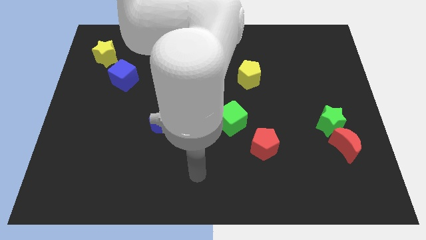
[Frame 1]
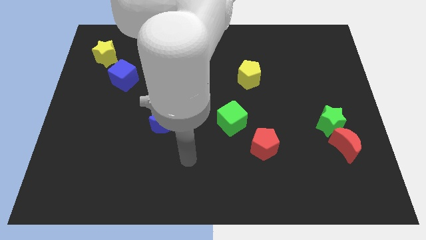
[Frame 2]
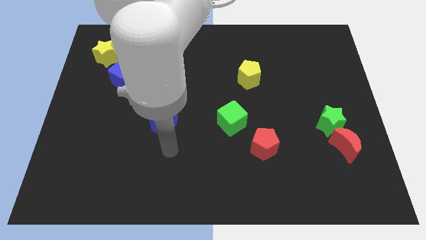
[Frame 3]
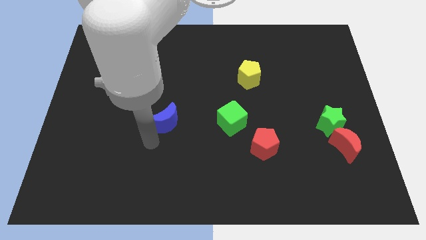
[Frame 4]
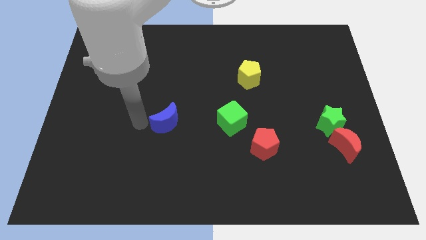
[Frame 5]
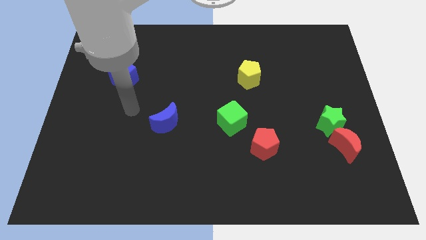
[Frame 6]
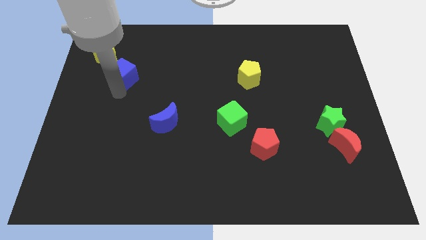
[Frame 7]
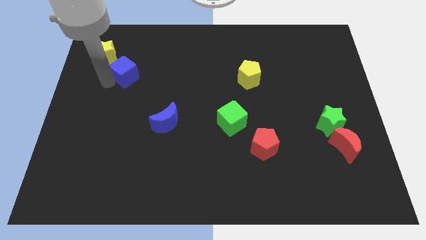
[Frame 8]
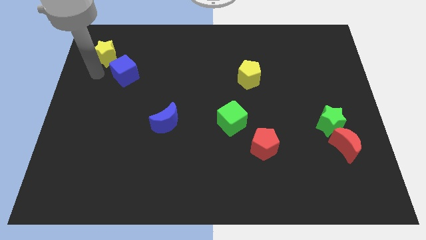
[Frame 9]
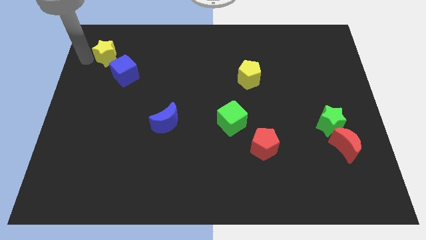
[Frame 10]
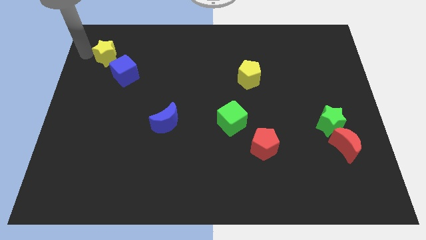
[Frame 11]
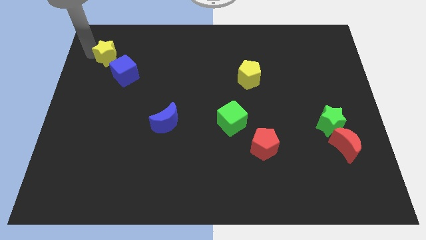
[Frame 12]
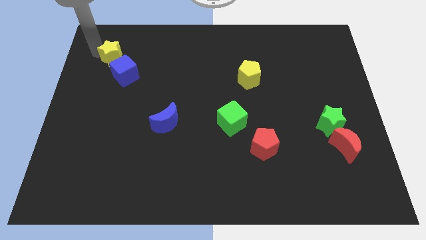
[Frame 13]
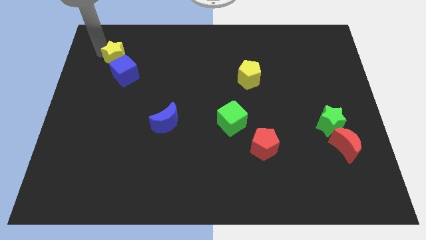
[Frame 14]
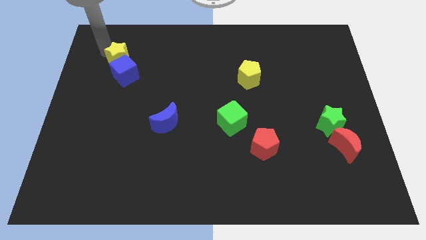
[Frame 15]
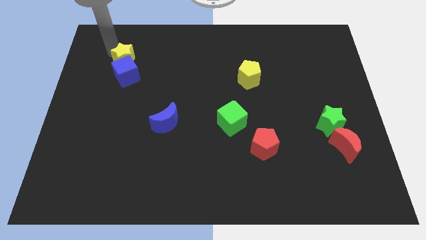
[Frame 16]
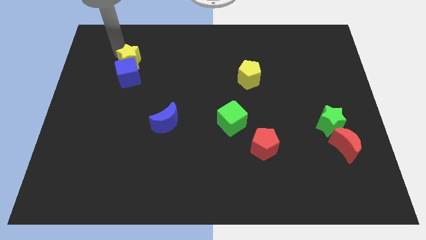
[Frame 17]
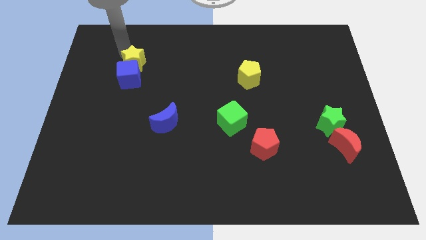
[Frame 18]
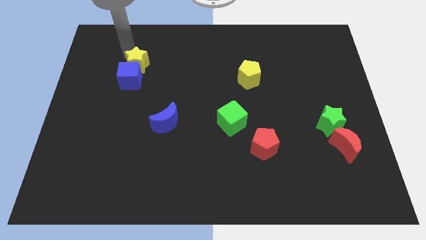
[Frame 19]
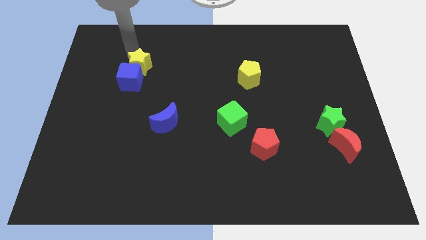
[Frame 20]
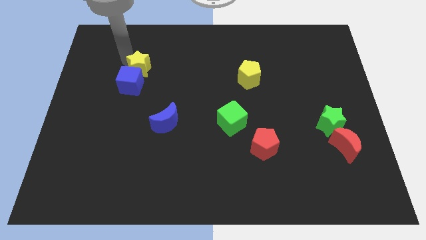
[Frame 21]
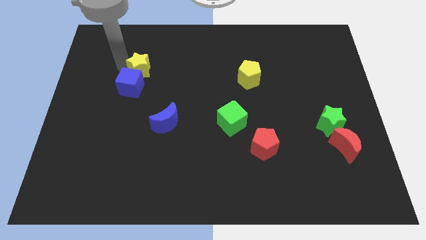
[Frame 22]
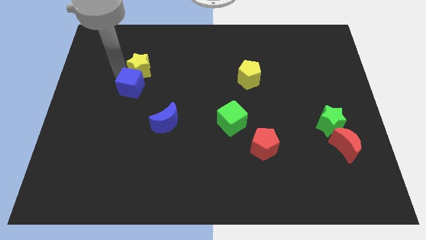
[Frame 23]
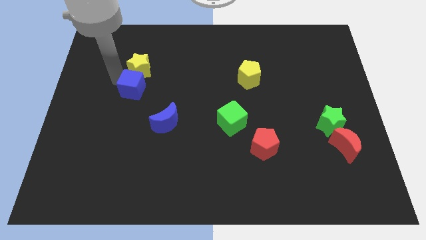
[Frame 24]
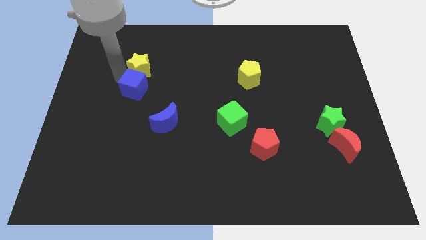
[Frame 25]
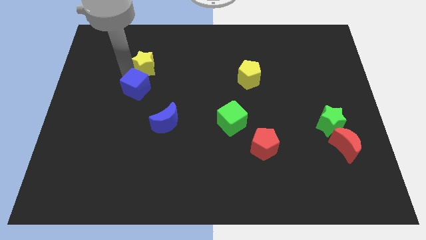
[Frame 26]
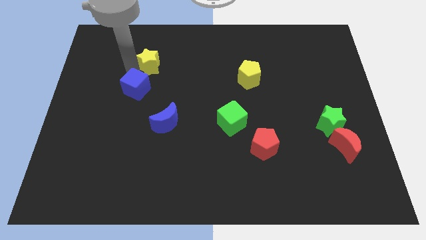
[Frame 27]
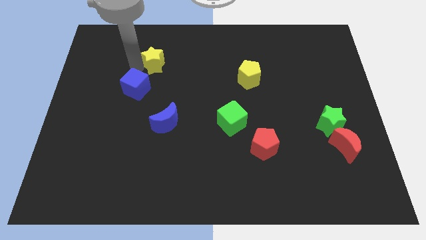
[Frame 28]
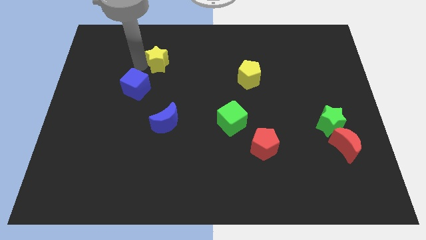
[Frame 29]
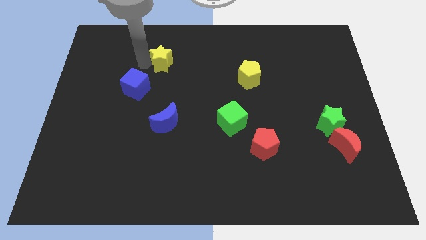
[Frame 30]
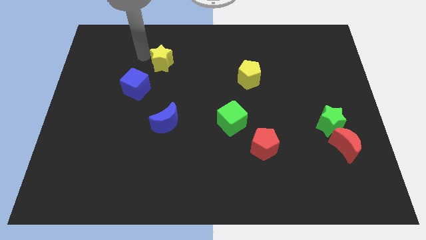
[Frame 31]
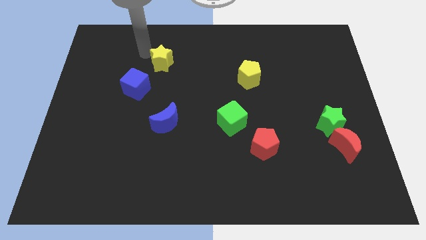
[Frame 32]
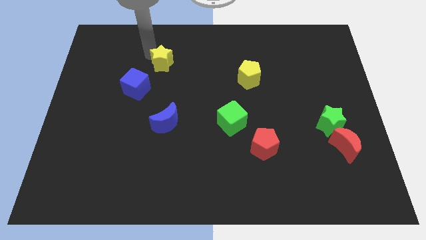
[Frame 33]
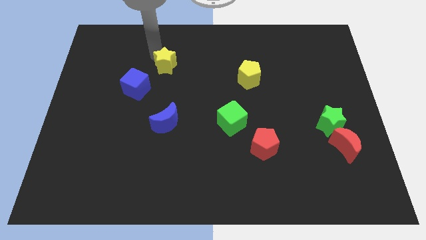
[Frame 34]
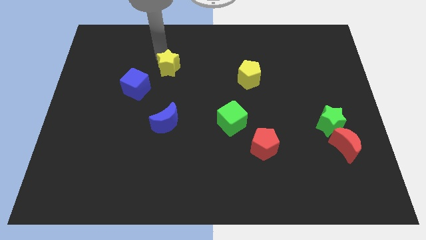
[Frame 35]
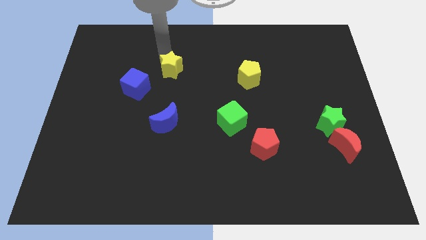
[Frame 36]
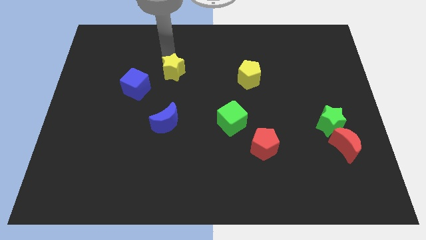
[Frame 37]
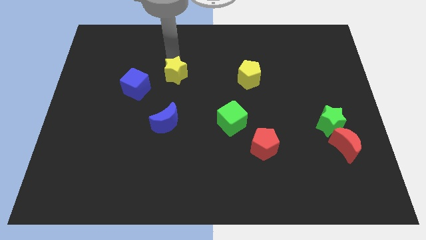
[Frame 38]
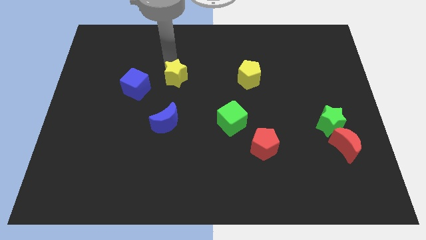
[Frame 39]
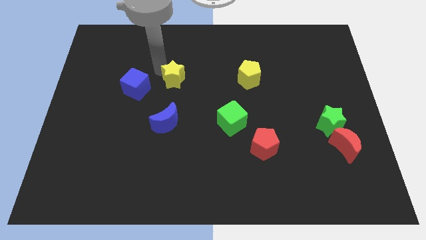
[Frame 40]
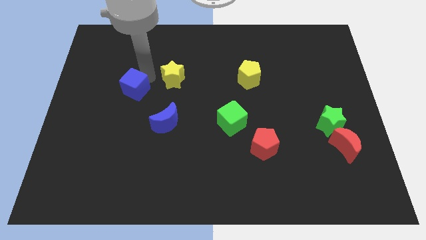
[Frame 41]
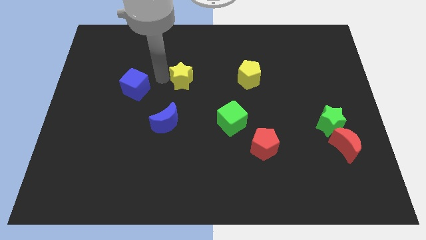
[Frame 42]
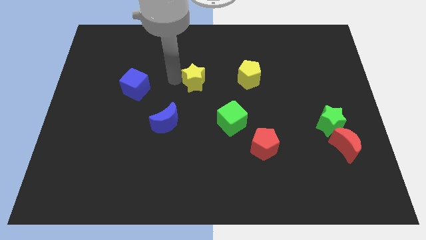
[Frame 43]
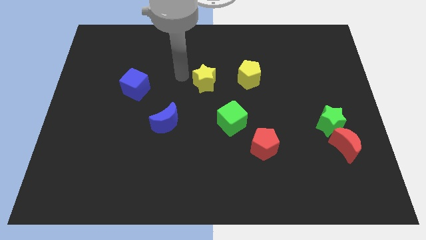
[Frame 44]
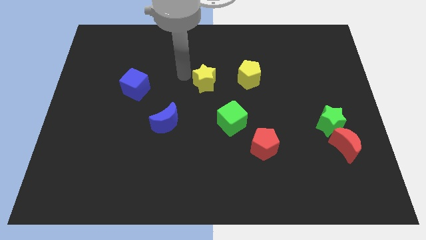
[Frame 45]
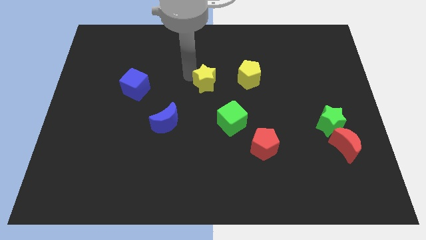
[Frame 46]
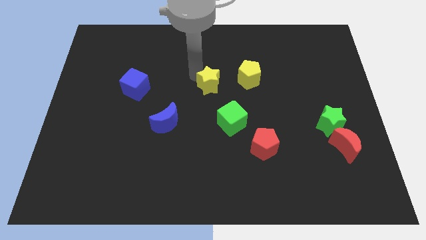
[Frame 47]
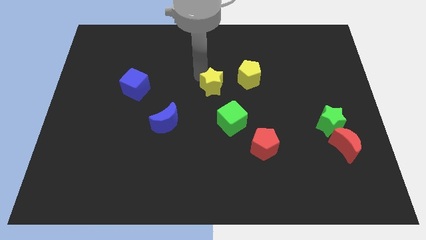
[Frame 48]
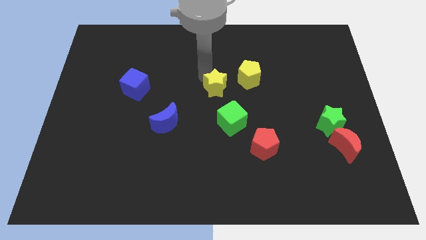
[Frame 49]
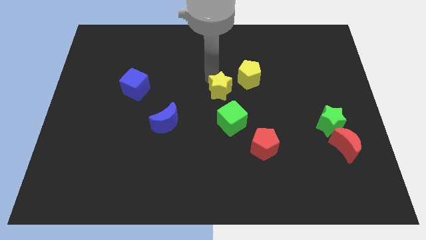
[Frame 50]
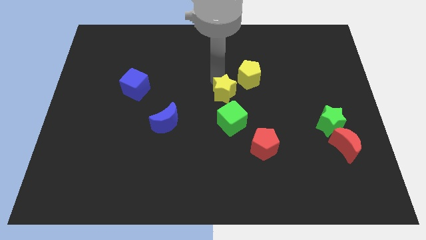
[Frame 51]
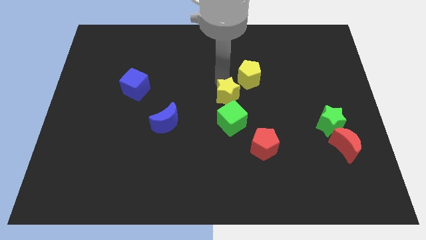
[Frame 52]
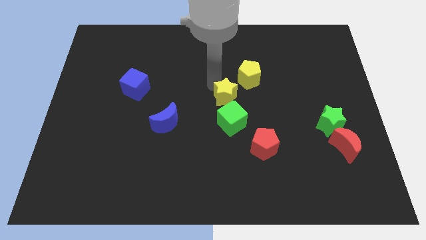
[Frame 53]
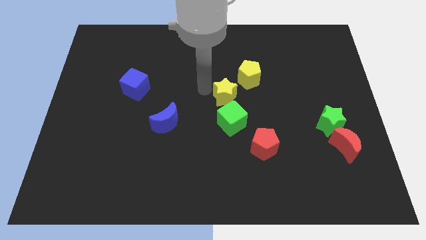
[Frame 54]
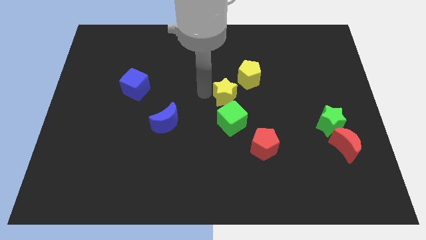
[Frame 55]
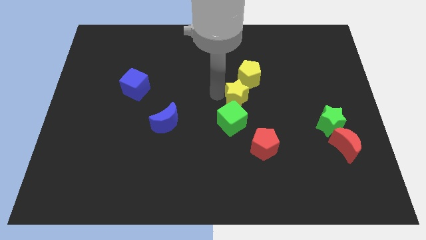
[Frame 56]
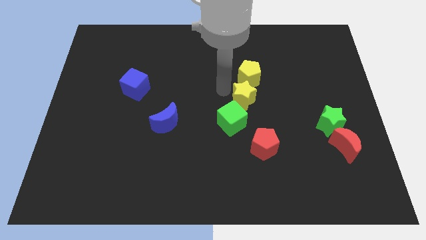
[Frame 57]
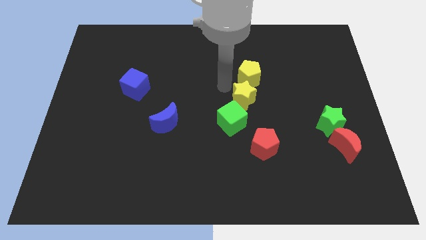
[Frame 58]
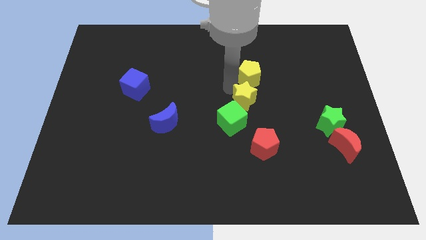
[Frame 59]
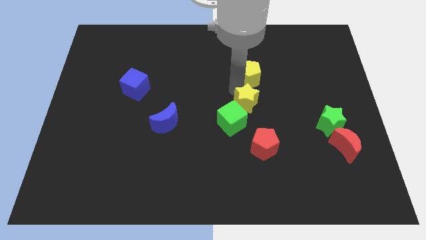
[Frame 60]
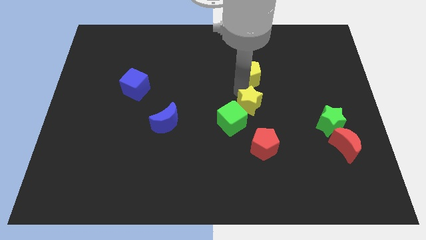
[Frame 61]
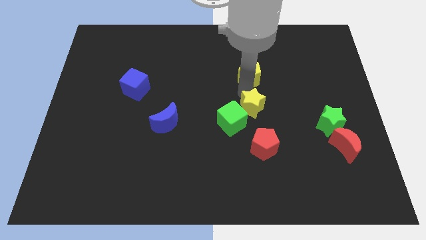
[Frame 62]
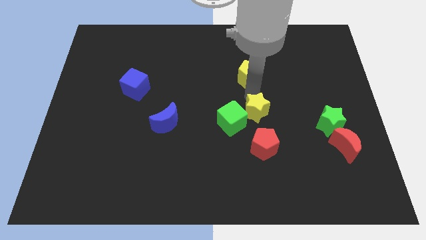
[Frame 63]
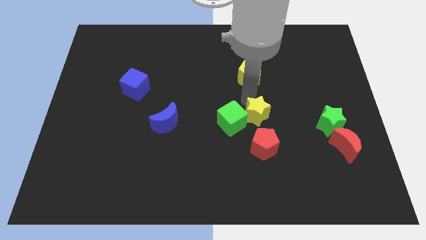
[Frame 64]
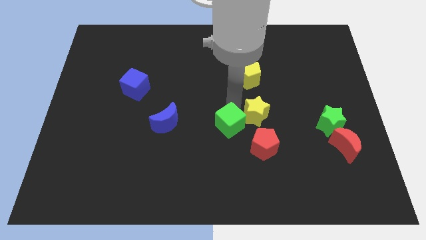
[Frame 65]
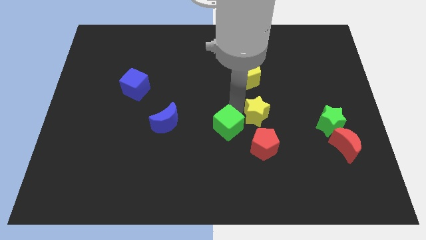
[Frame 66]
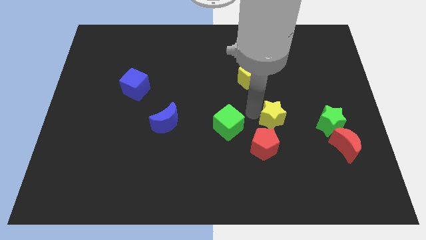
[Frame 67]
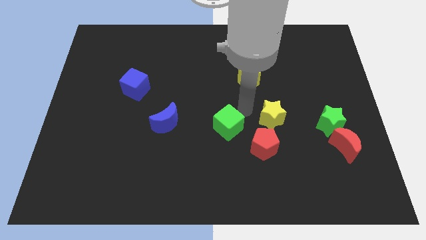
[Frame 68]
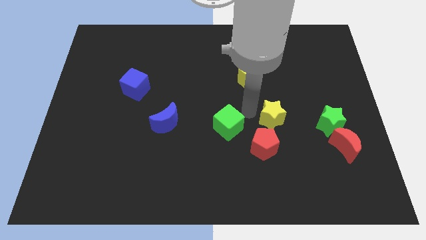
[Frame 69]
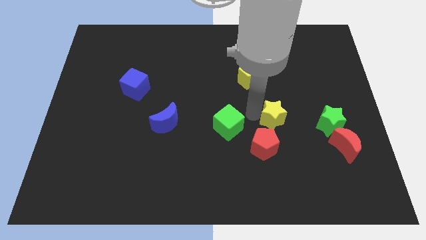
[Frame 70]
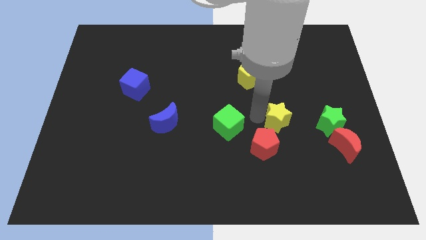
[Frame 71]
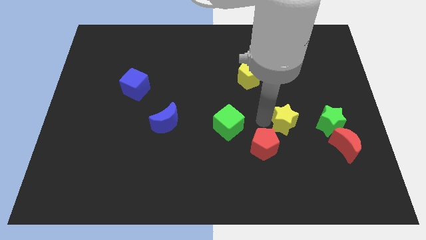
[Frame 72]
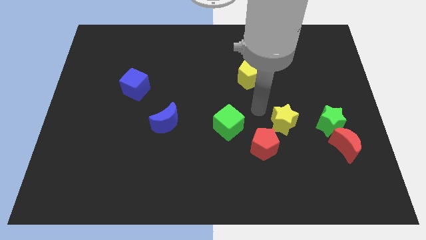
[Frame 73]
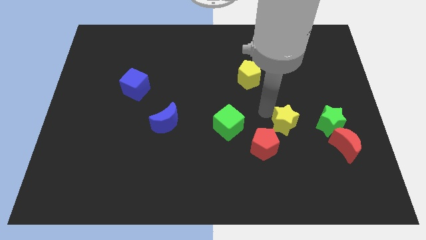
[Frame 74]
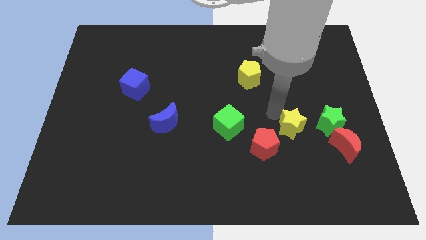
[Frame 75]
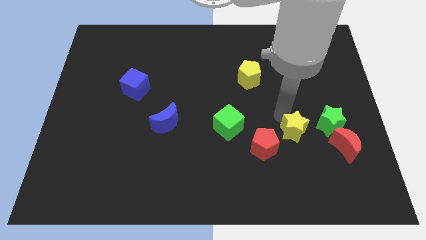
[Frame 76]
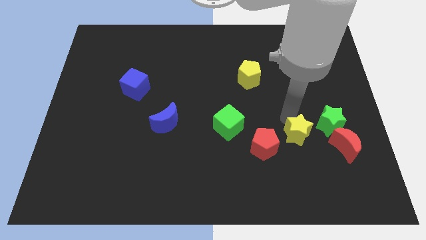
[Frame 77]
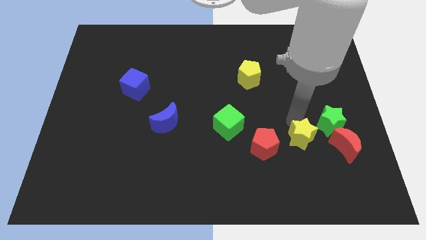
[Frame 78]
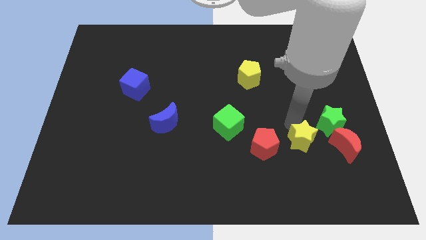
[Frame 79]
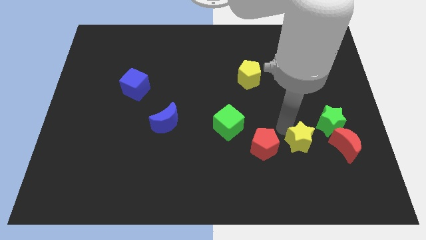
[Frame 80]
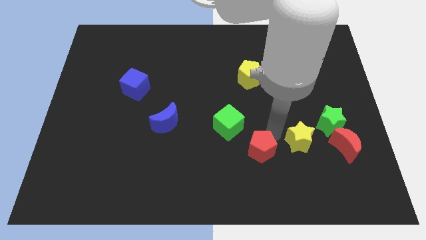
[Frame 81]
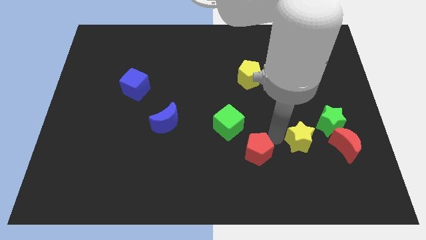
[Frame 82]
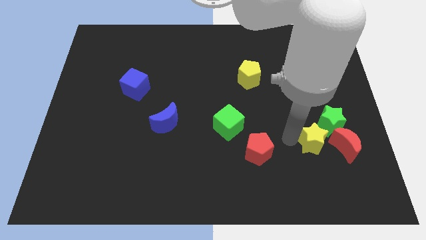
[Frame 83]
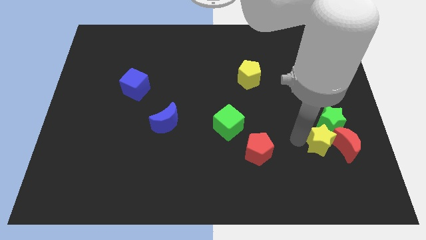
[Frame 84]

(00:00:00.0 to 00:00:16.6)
slide the yellow star close to the red moon
